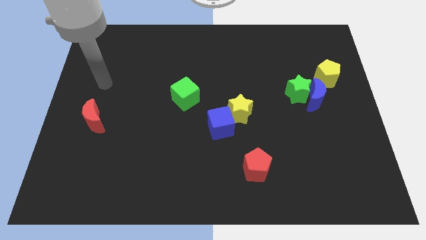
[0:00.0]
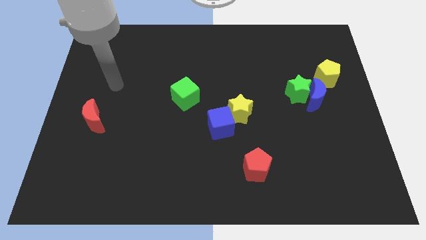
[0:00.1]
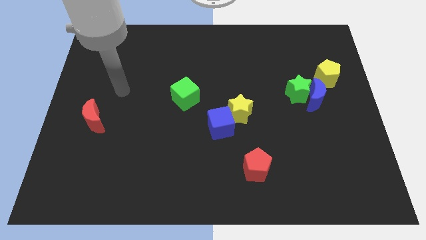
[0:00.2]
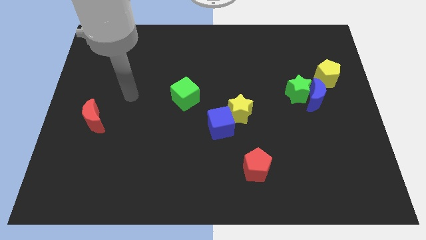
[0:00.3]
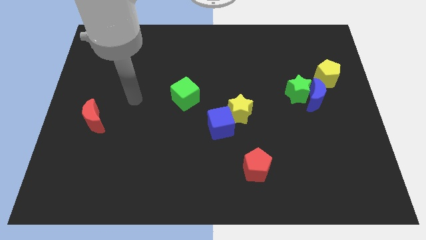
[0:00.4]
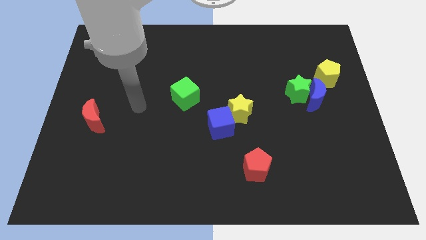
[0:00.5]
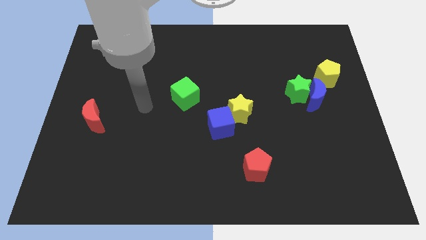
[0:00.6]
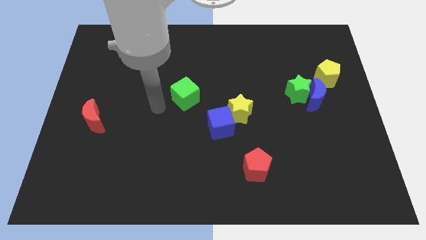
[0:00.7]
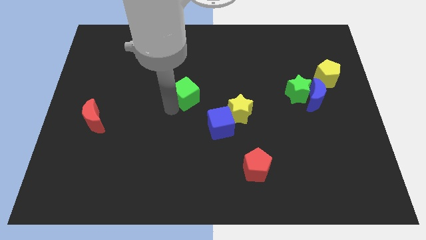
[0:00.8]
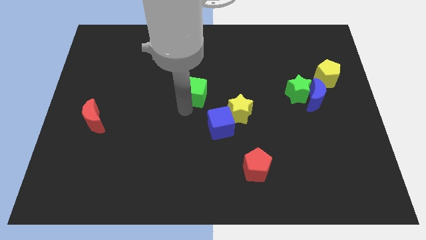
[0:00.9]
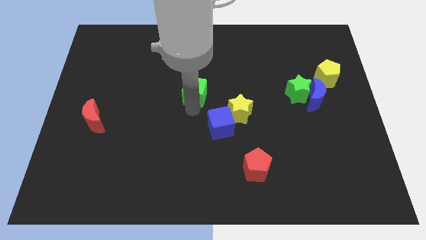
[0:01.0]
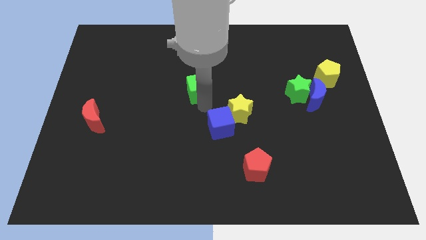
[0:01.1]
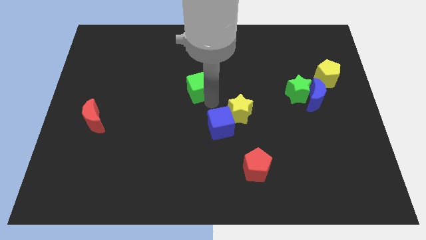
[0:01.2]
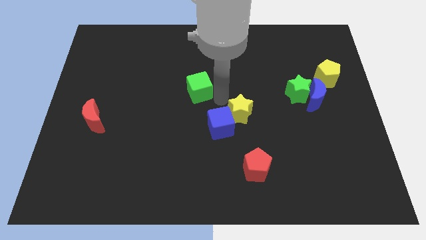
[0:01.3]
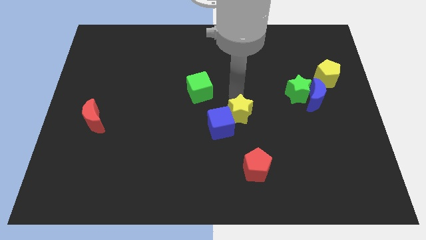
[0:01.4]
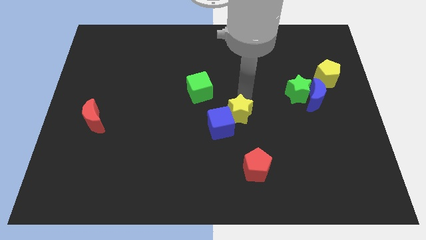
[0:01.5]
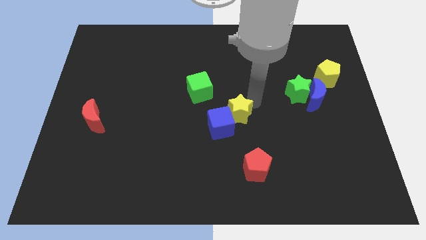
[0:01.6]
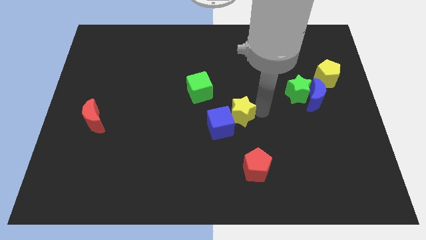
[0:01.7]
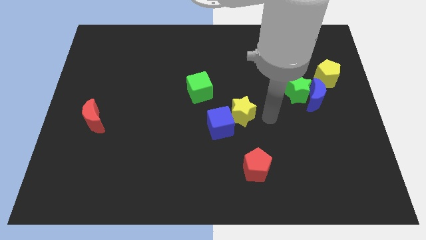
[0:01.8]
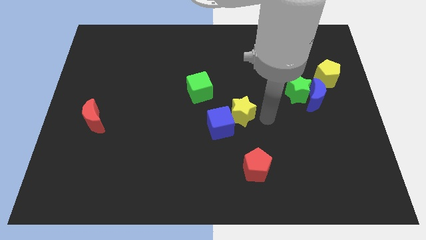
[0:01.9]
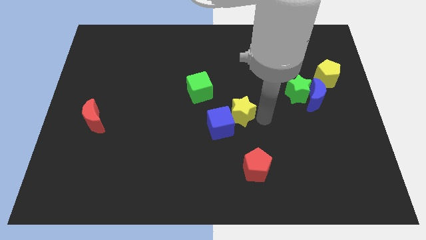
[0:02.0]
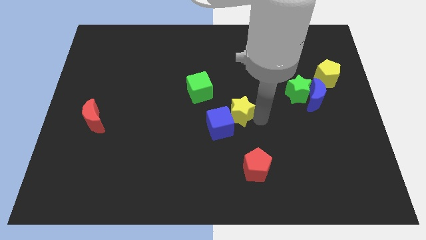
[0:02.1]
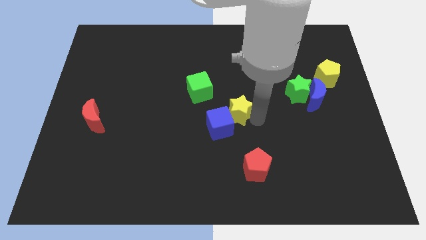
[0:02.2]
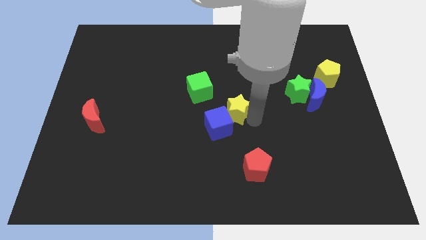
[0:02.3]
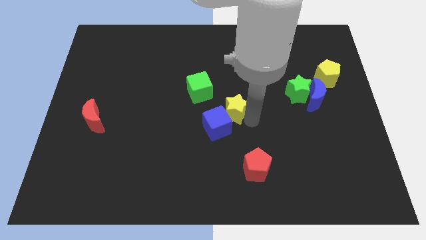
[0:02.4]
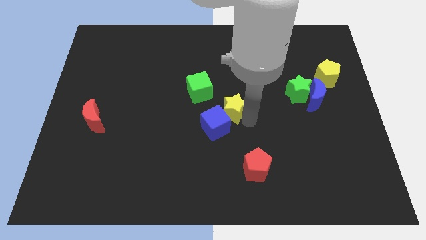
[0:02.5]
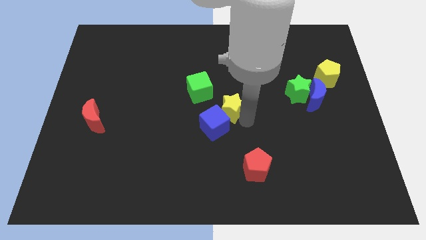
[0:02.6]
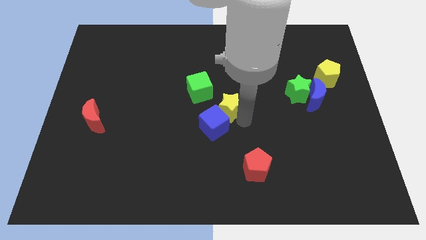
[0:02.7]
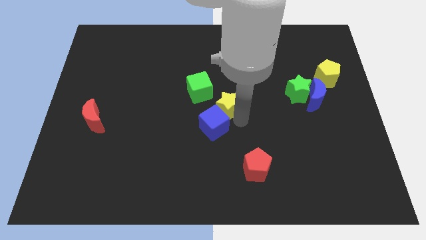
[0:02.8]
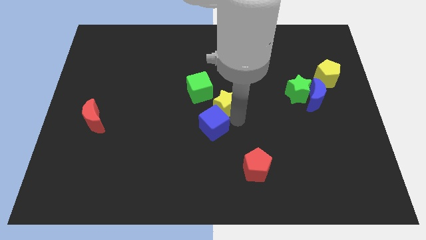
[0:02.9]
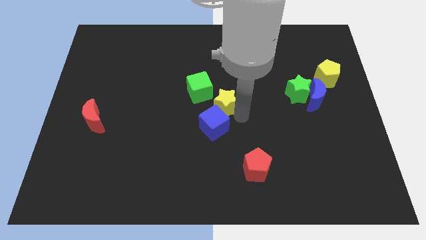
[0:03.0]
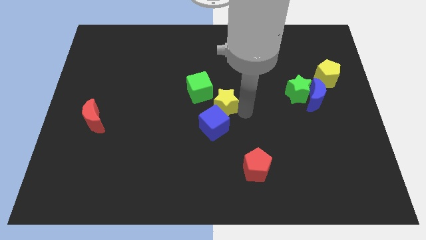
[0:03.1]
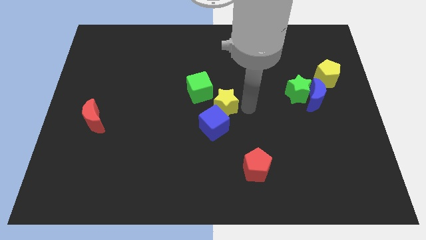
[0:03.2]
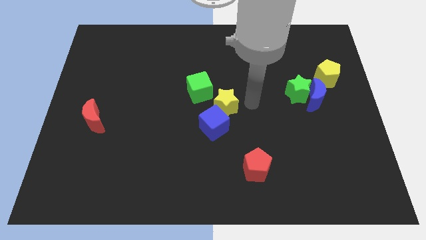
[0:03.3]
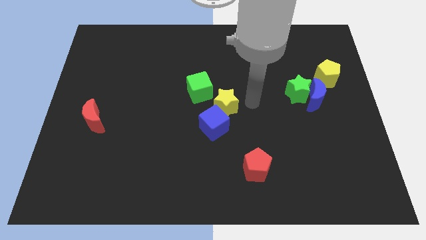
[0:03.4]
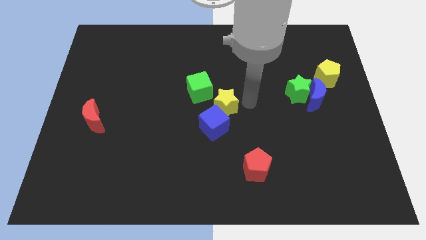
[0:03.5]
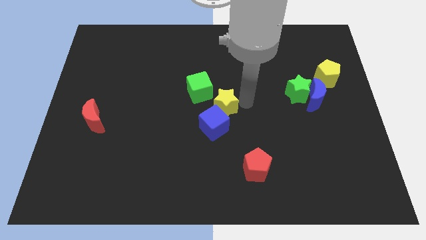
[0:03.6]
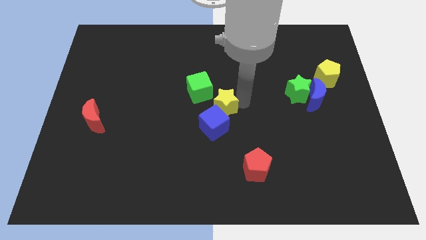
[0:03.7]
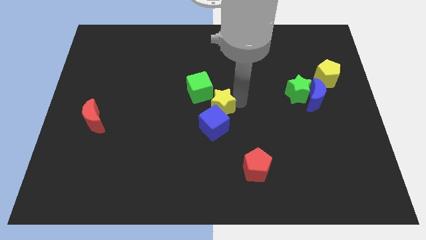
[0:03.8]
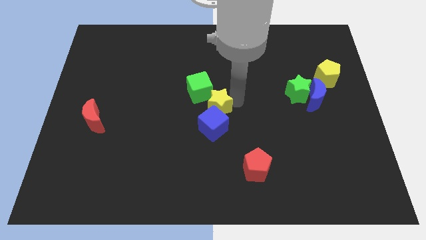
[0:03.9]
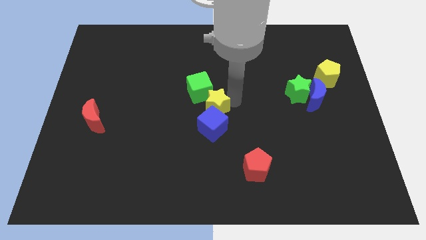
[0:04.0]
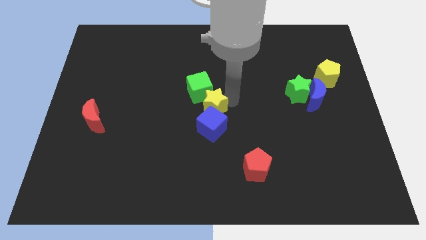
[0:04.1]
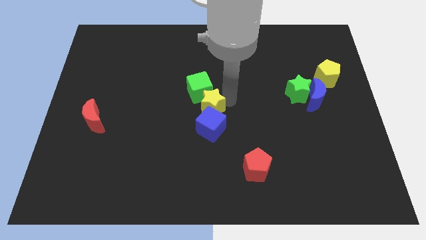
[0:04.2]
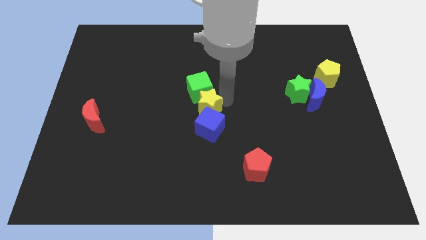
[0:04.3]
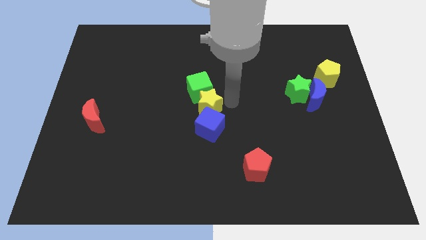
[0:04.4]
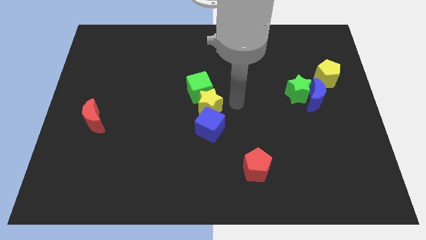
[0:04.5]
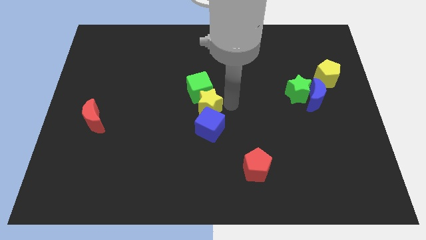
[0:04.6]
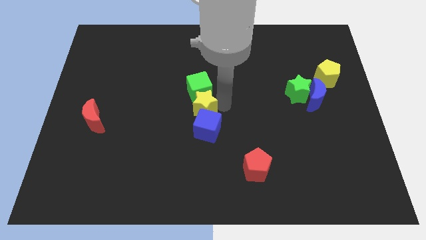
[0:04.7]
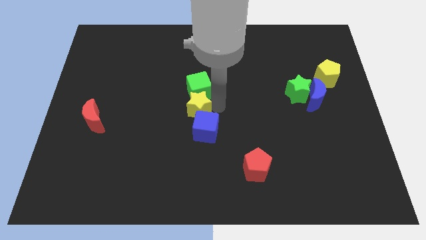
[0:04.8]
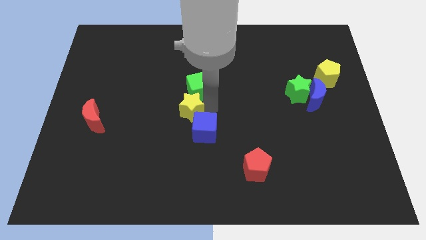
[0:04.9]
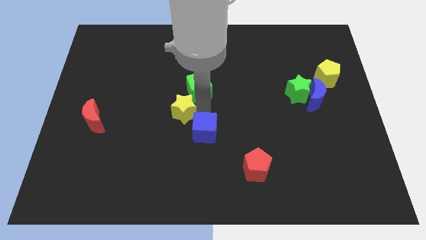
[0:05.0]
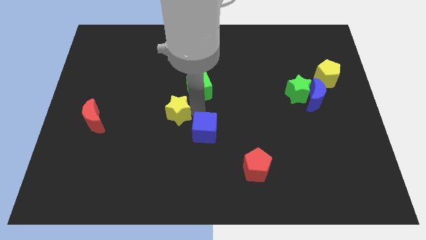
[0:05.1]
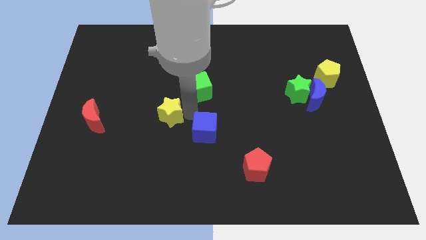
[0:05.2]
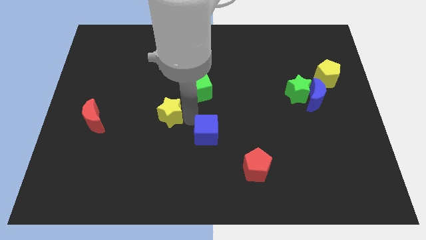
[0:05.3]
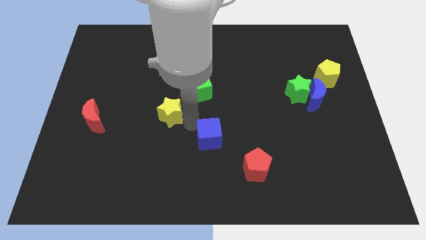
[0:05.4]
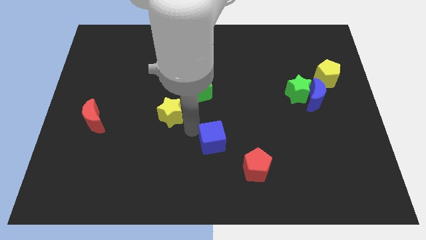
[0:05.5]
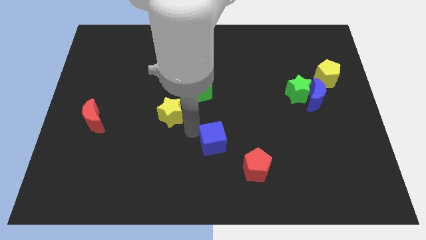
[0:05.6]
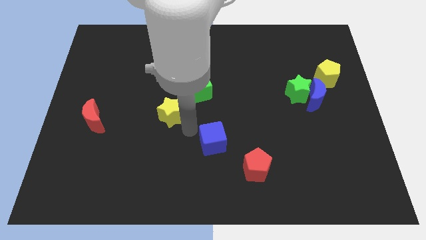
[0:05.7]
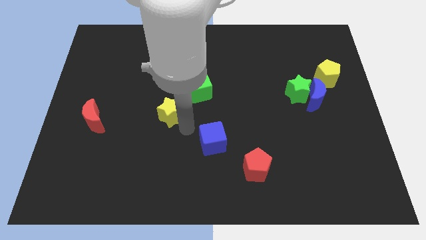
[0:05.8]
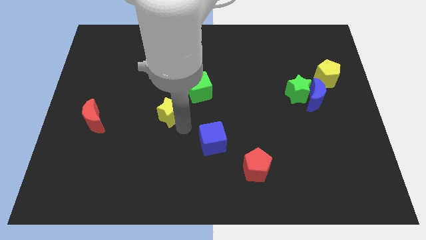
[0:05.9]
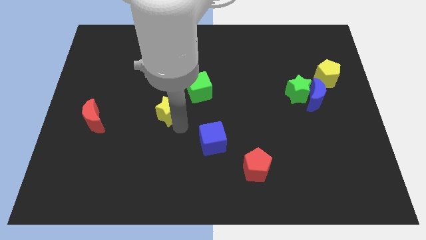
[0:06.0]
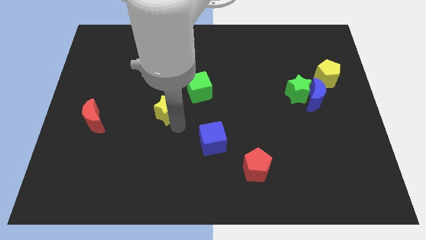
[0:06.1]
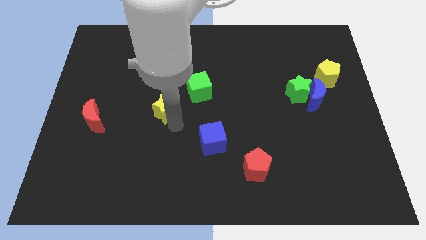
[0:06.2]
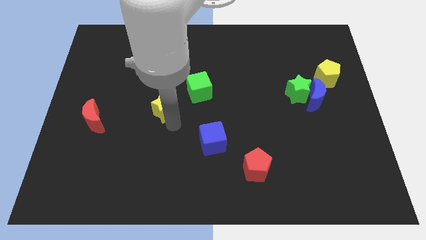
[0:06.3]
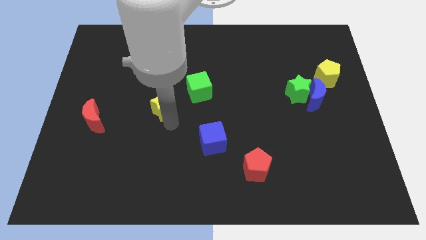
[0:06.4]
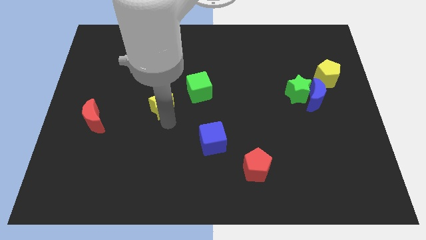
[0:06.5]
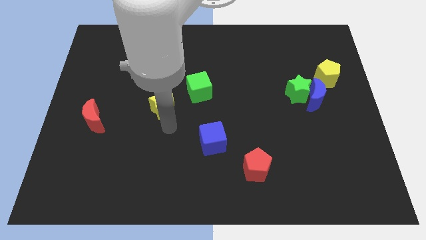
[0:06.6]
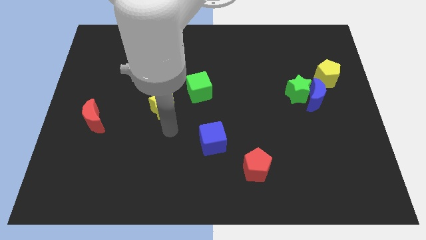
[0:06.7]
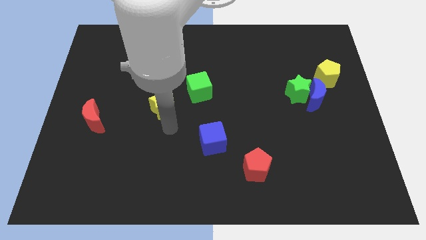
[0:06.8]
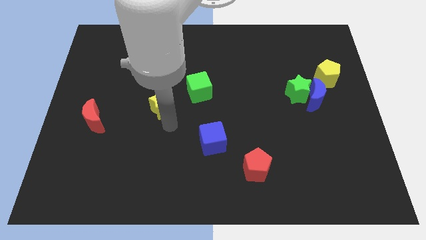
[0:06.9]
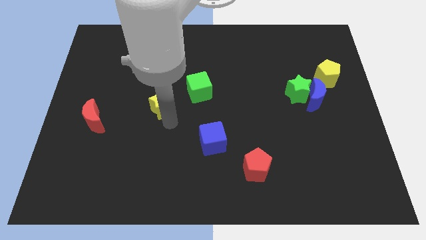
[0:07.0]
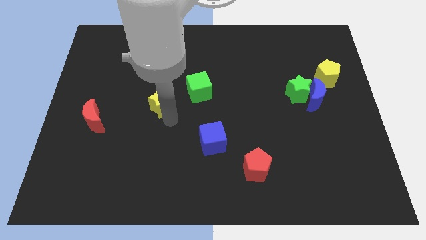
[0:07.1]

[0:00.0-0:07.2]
put the yellow star just left of the green cube
